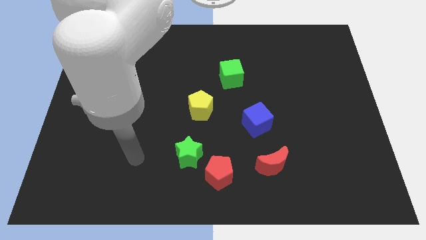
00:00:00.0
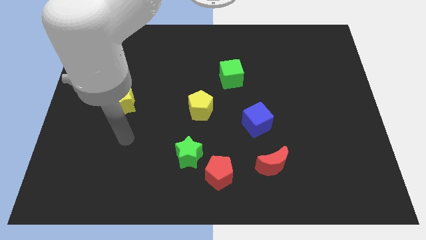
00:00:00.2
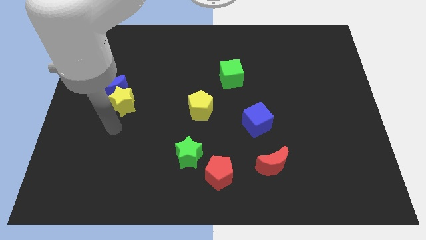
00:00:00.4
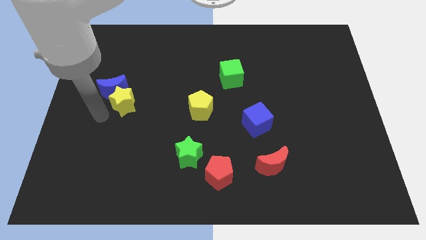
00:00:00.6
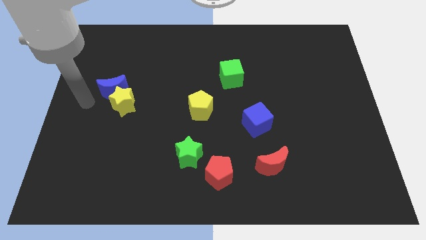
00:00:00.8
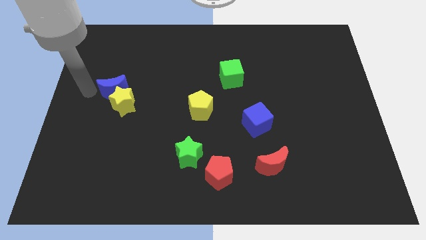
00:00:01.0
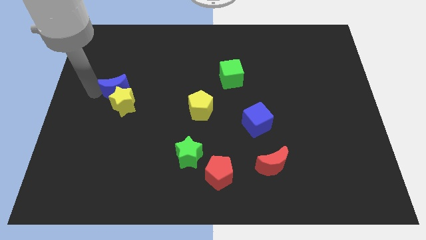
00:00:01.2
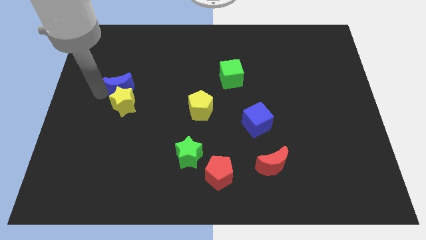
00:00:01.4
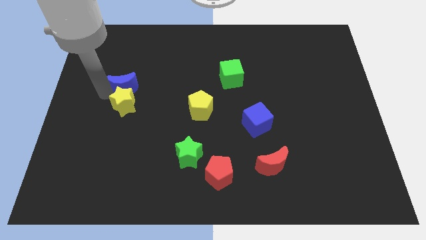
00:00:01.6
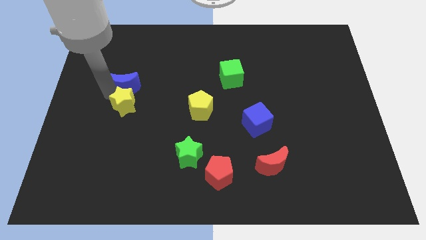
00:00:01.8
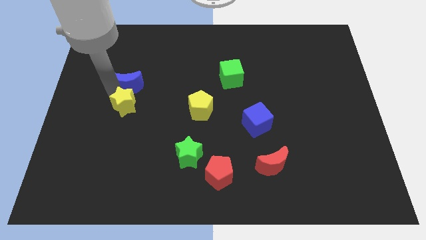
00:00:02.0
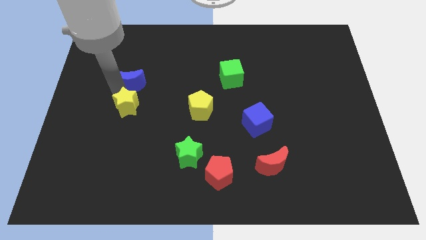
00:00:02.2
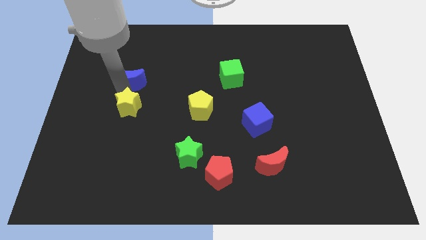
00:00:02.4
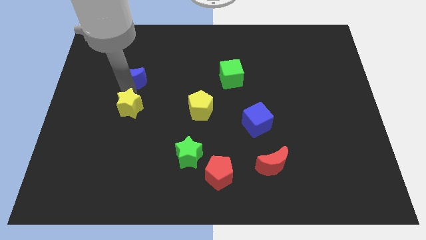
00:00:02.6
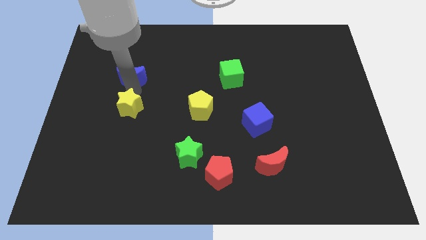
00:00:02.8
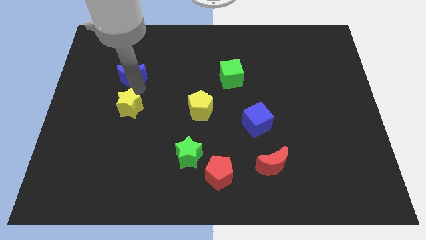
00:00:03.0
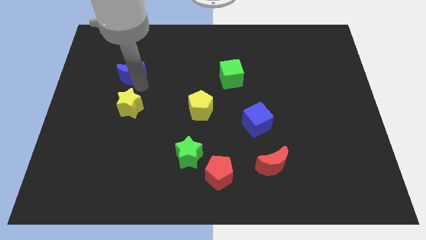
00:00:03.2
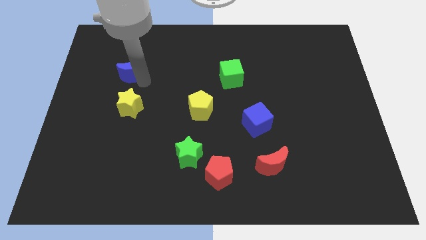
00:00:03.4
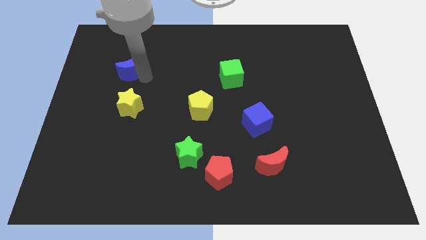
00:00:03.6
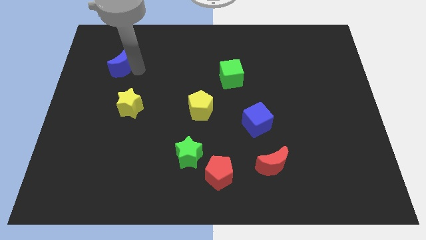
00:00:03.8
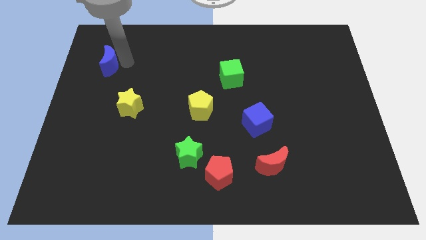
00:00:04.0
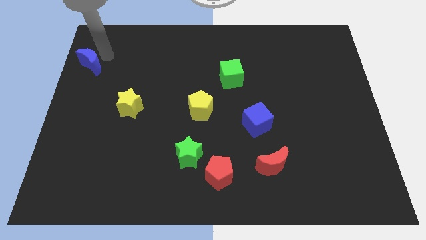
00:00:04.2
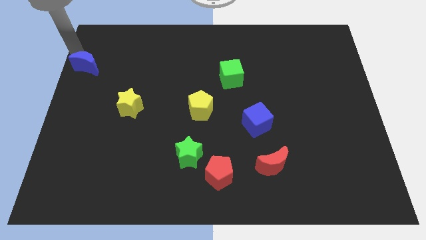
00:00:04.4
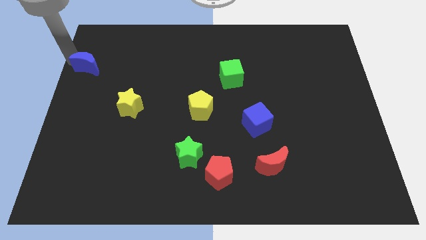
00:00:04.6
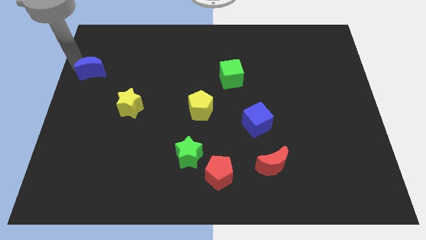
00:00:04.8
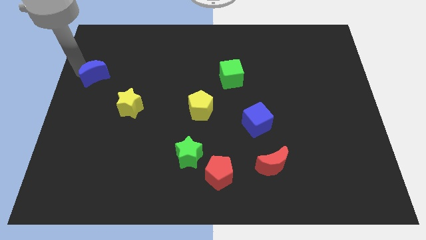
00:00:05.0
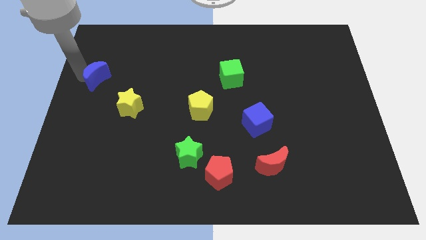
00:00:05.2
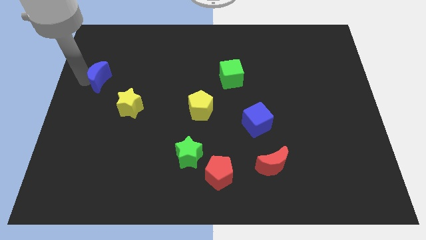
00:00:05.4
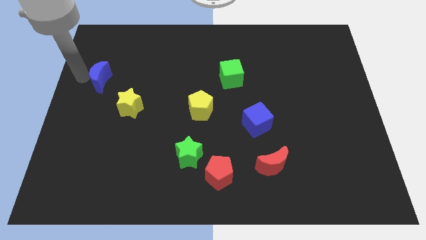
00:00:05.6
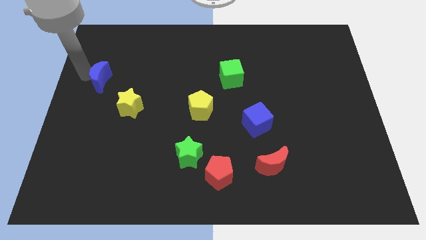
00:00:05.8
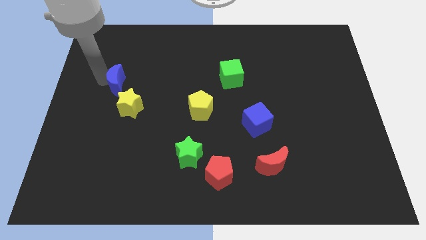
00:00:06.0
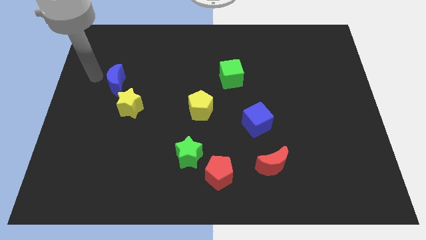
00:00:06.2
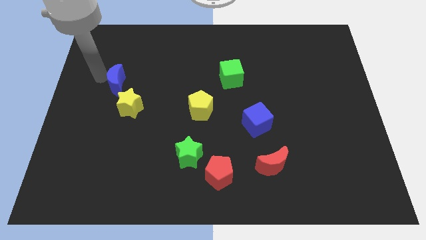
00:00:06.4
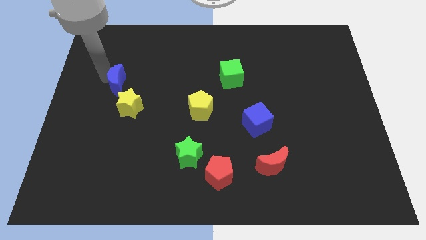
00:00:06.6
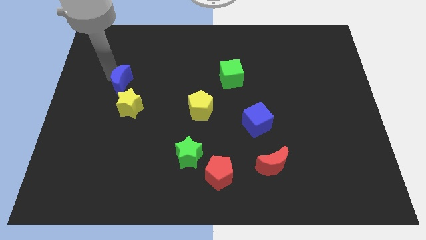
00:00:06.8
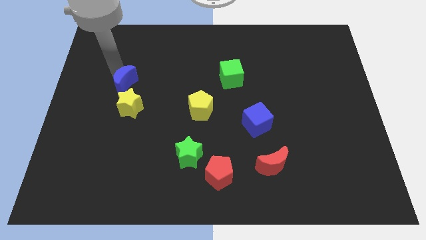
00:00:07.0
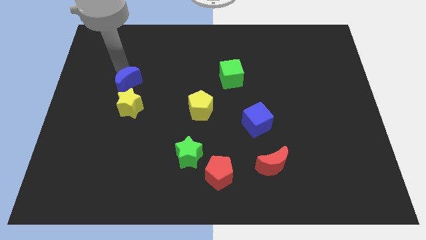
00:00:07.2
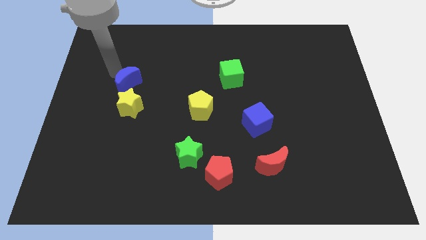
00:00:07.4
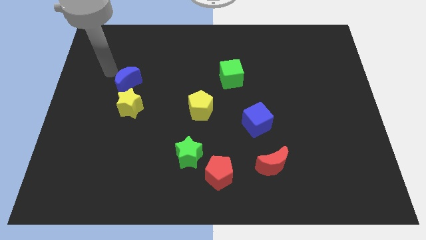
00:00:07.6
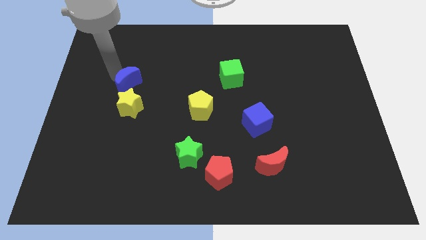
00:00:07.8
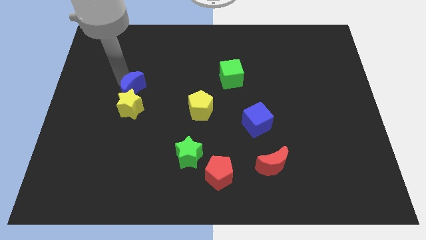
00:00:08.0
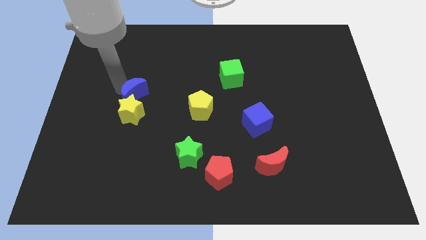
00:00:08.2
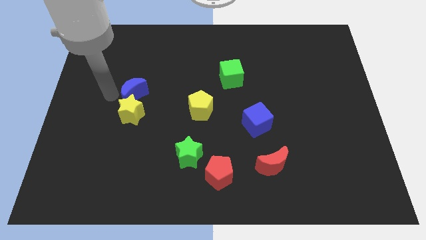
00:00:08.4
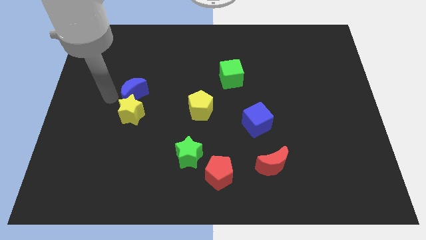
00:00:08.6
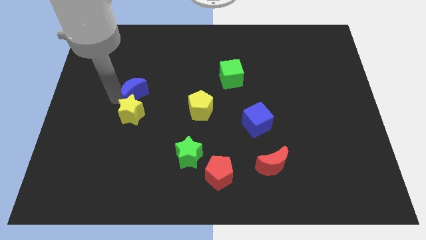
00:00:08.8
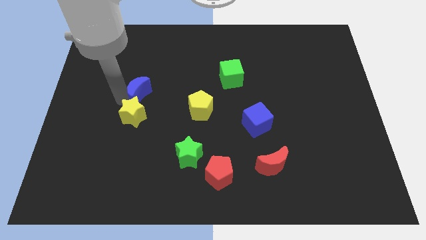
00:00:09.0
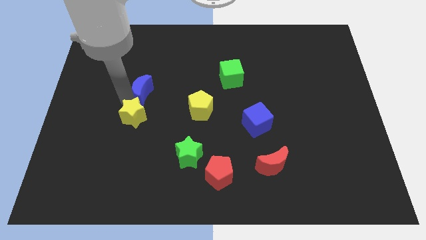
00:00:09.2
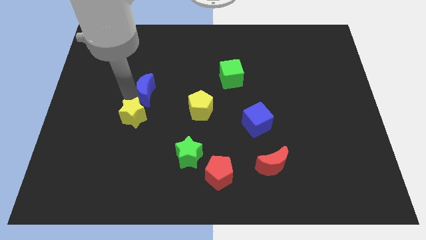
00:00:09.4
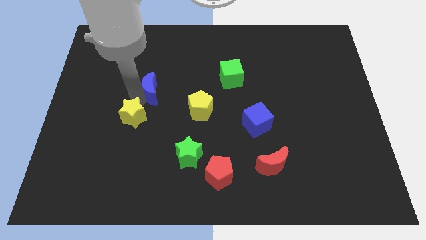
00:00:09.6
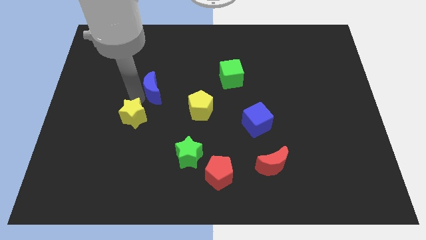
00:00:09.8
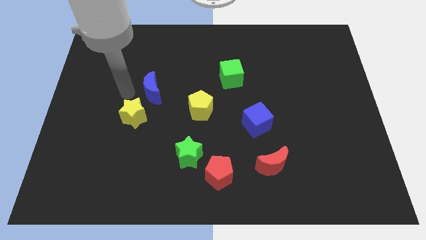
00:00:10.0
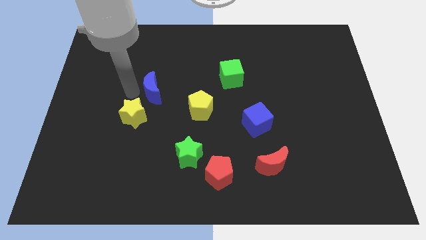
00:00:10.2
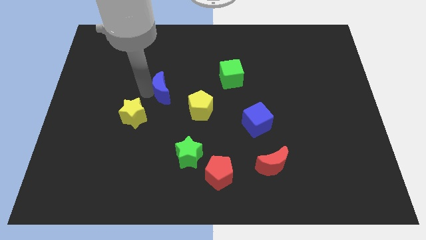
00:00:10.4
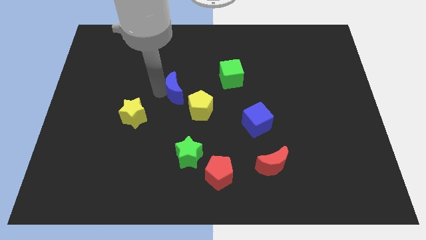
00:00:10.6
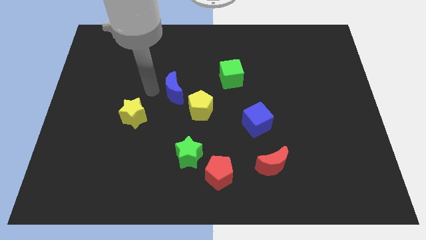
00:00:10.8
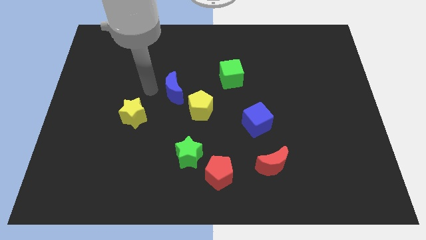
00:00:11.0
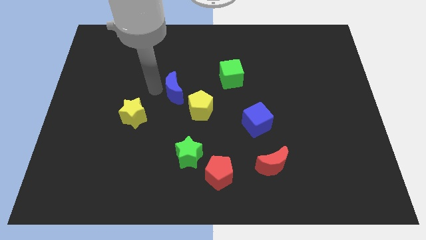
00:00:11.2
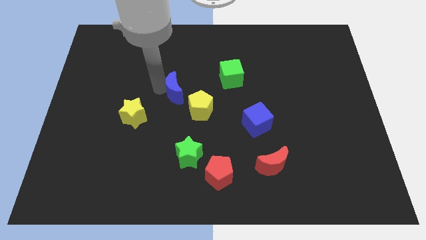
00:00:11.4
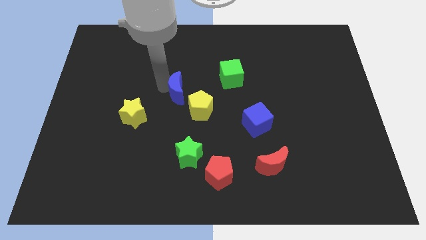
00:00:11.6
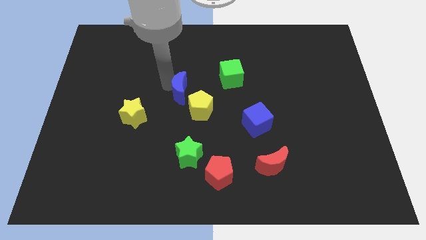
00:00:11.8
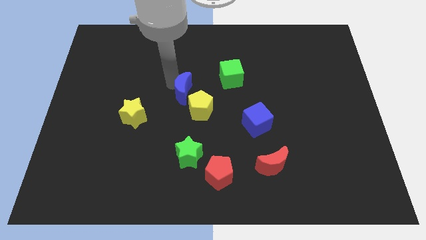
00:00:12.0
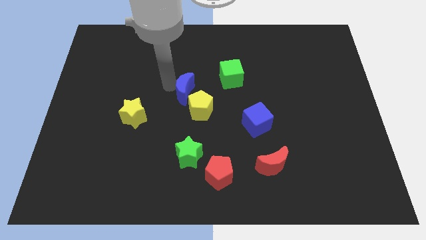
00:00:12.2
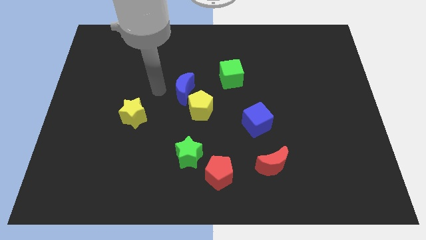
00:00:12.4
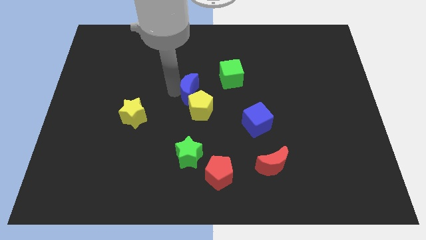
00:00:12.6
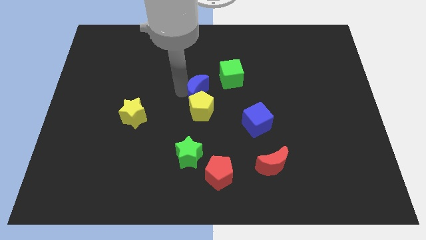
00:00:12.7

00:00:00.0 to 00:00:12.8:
push the blue moon to the right

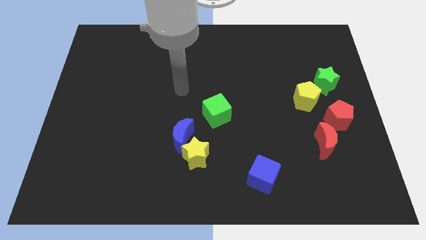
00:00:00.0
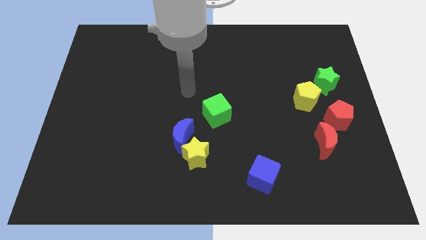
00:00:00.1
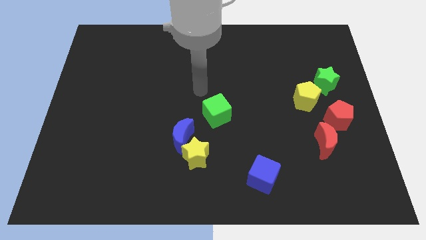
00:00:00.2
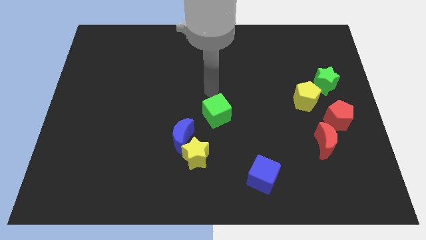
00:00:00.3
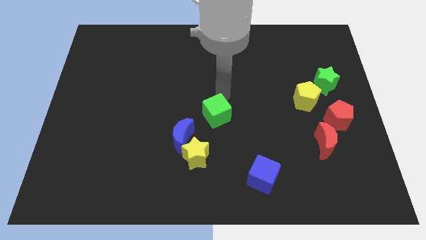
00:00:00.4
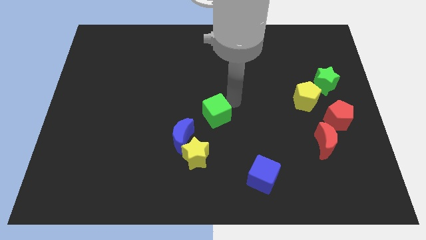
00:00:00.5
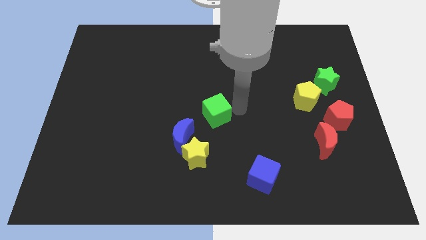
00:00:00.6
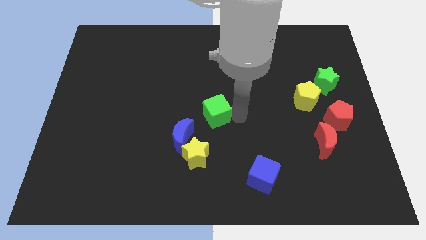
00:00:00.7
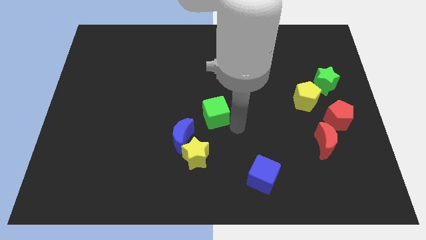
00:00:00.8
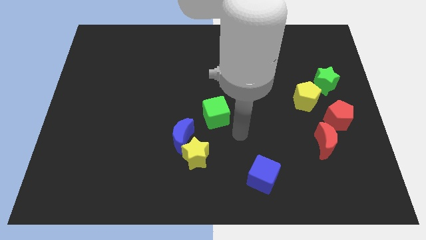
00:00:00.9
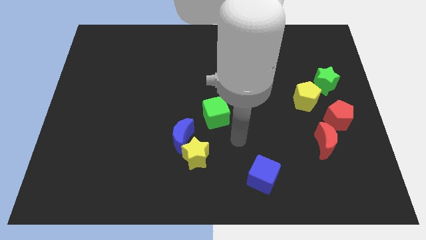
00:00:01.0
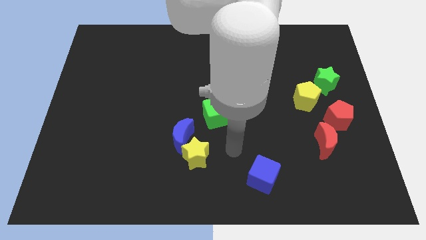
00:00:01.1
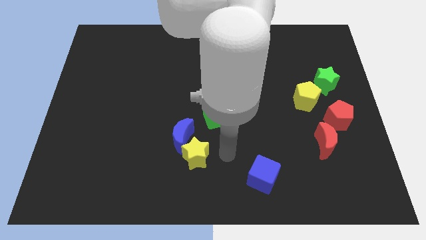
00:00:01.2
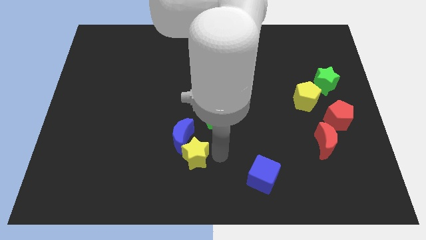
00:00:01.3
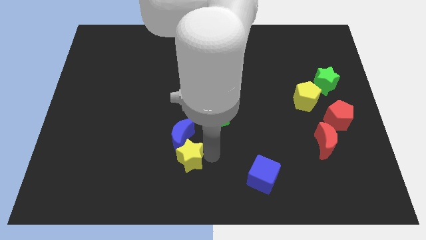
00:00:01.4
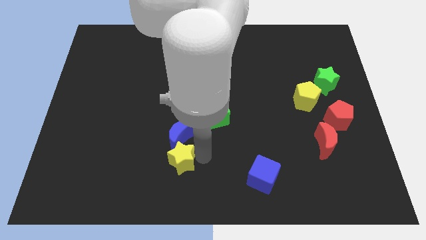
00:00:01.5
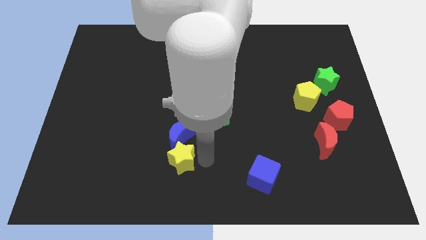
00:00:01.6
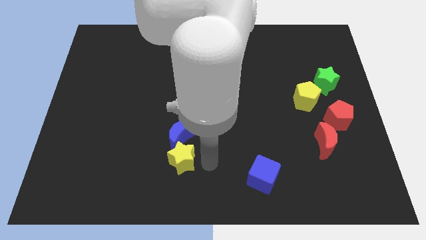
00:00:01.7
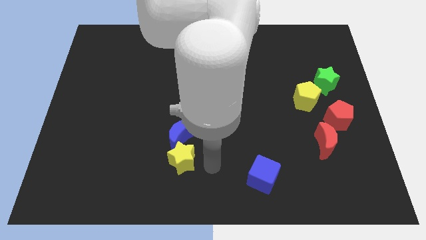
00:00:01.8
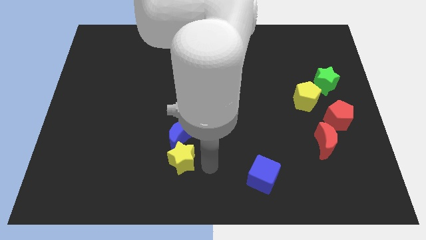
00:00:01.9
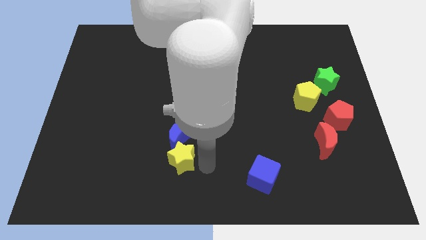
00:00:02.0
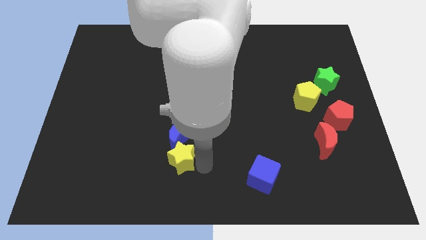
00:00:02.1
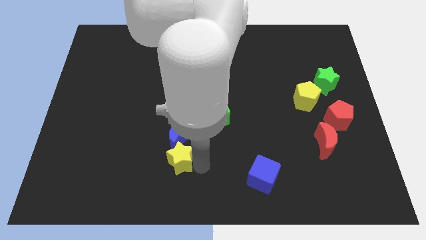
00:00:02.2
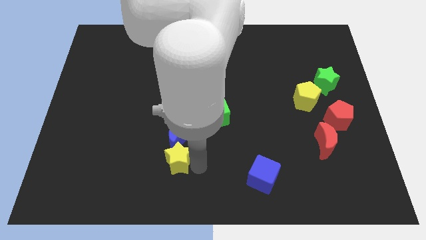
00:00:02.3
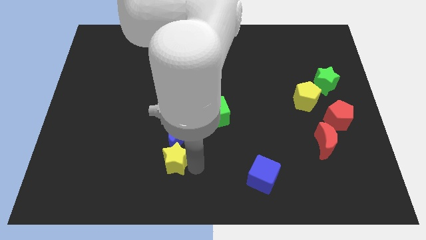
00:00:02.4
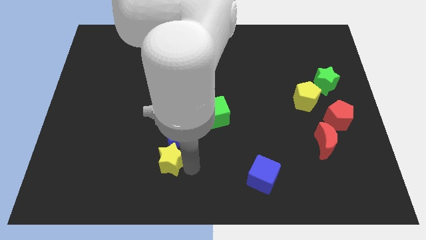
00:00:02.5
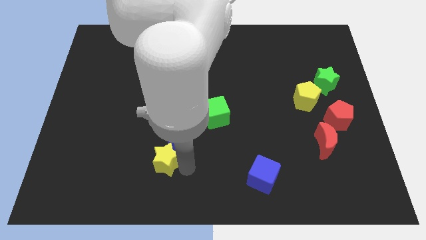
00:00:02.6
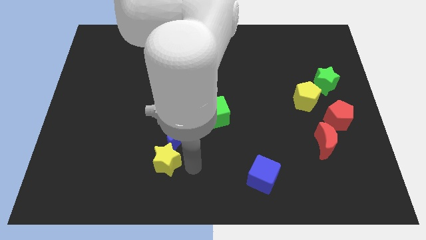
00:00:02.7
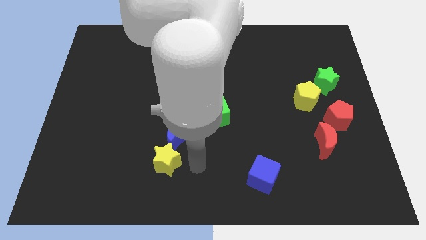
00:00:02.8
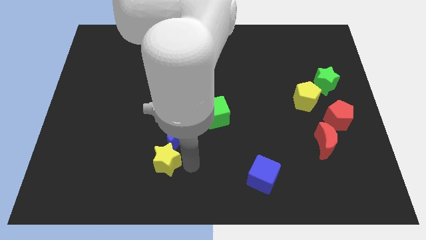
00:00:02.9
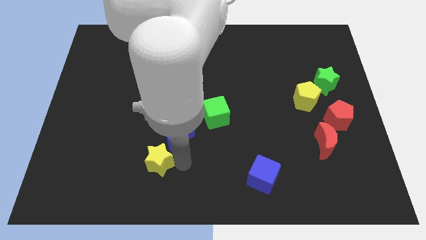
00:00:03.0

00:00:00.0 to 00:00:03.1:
slightly slide the yellow star left
